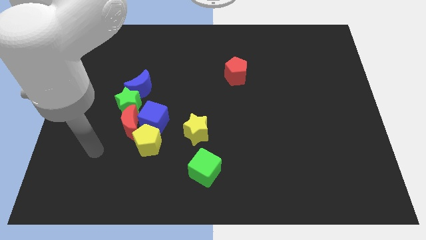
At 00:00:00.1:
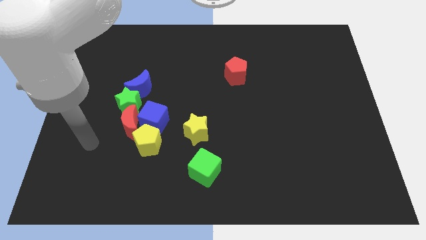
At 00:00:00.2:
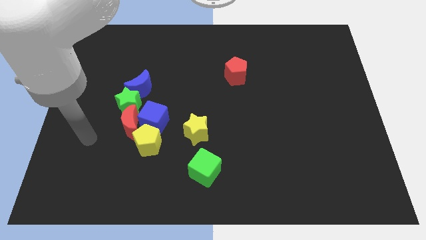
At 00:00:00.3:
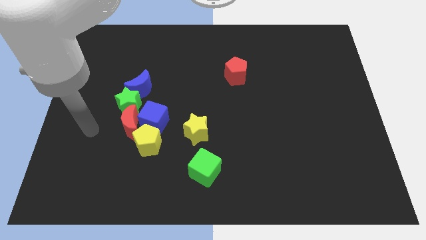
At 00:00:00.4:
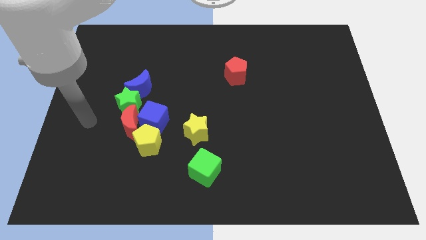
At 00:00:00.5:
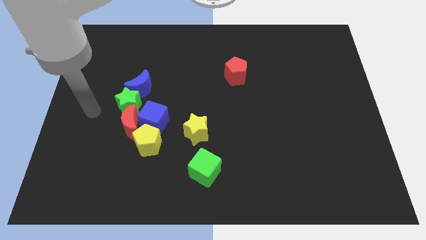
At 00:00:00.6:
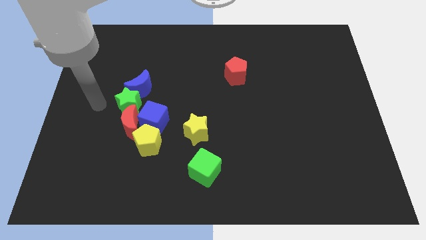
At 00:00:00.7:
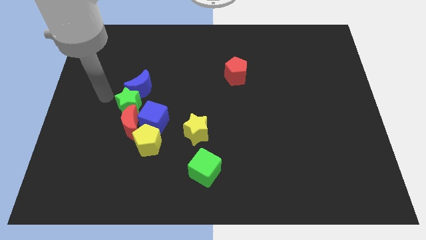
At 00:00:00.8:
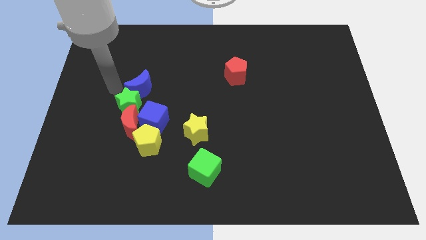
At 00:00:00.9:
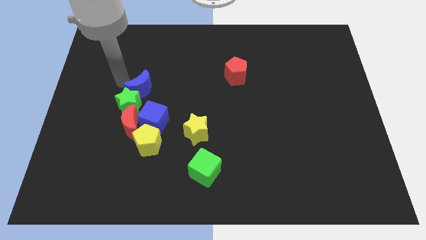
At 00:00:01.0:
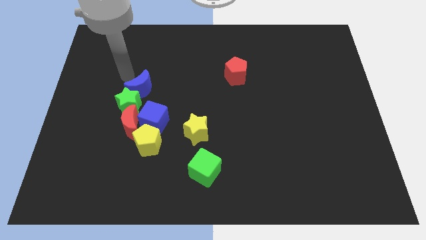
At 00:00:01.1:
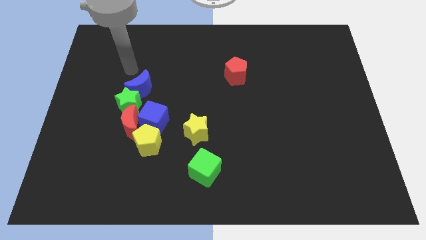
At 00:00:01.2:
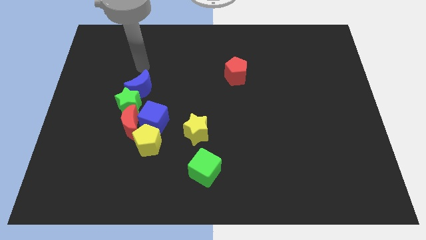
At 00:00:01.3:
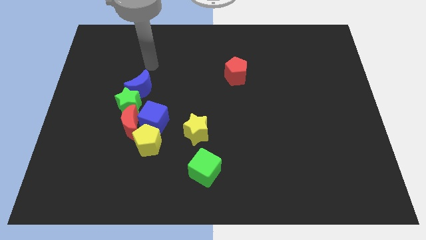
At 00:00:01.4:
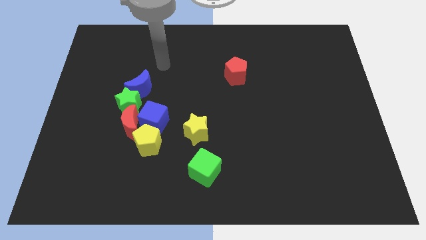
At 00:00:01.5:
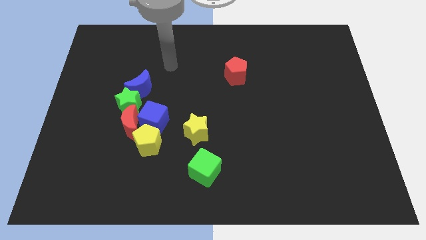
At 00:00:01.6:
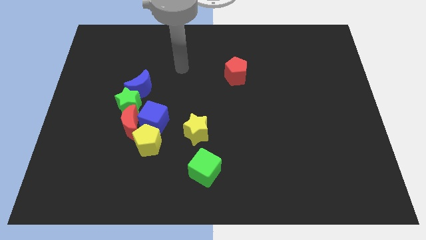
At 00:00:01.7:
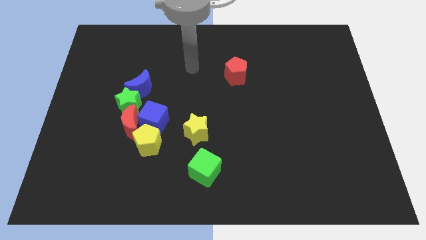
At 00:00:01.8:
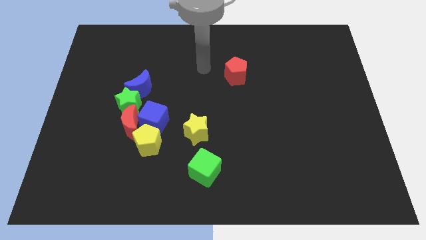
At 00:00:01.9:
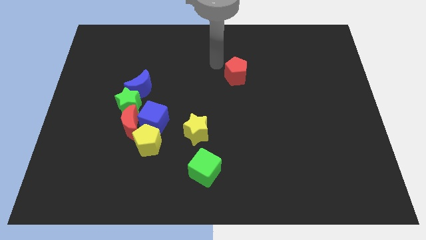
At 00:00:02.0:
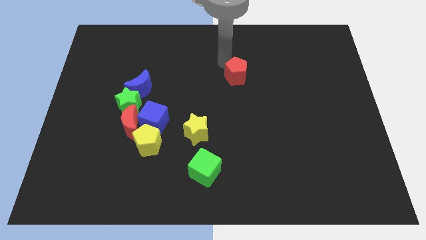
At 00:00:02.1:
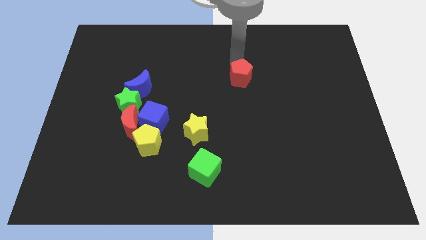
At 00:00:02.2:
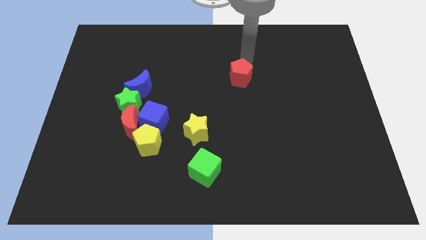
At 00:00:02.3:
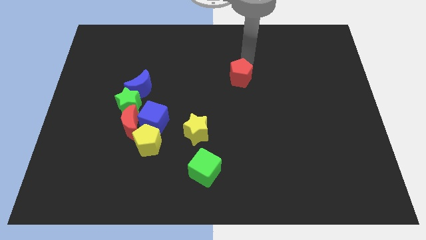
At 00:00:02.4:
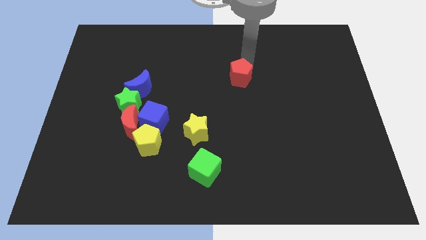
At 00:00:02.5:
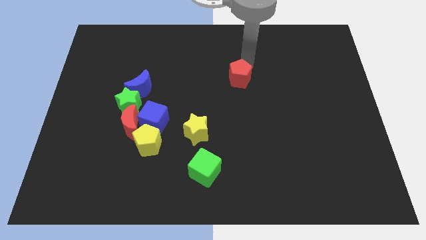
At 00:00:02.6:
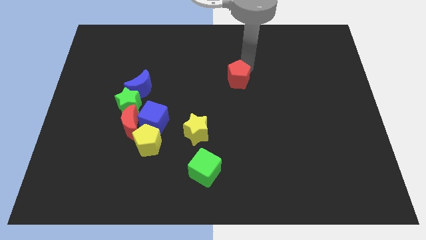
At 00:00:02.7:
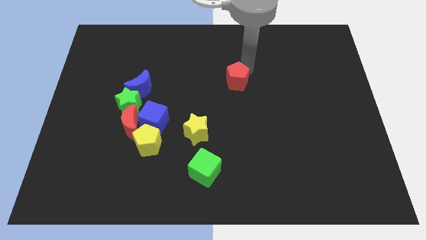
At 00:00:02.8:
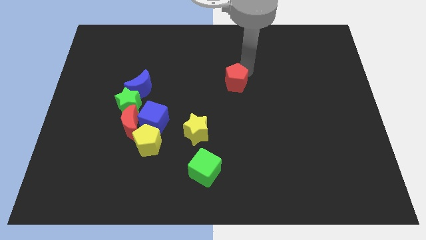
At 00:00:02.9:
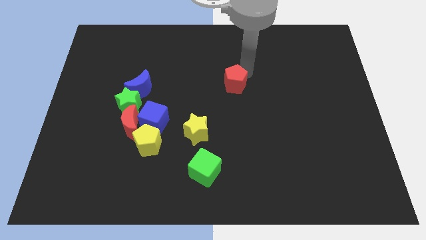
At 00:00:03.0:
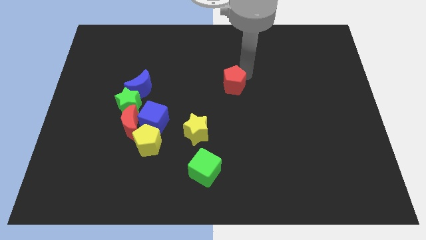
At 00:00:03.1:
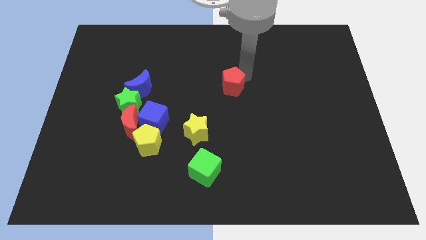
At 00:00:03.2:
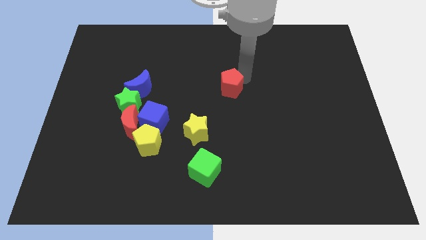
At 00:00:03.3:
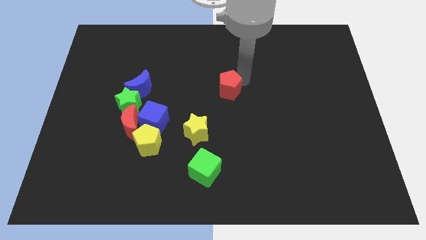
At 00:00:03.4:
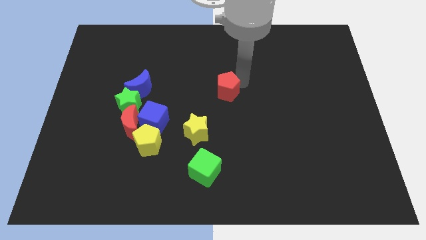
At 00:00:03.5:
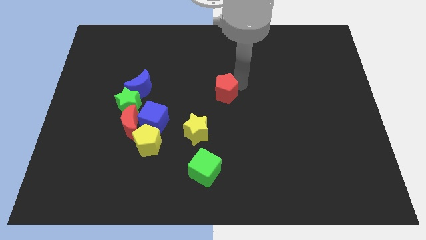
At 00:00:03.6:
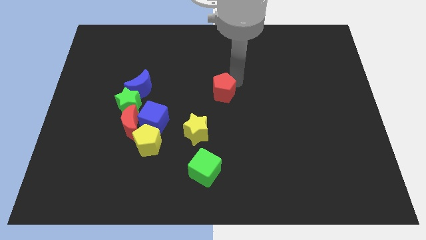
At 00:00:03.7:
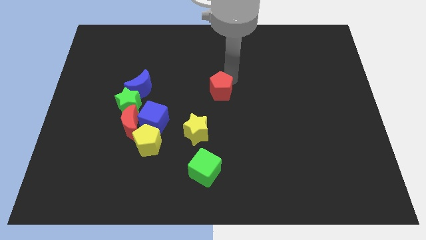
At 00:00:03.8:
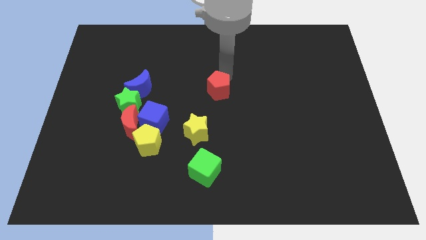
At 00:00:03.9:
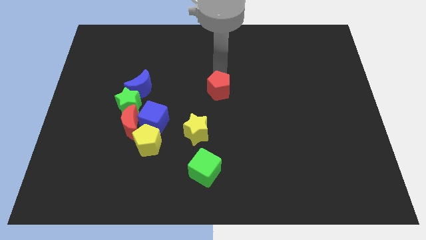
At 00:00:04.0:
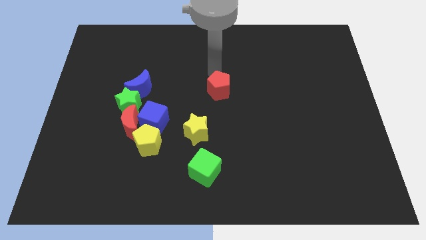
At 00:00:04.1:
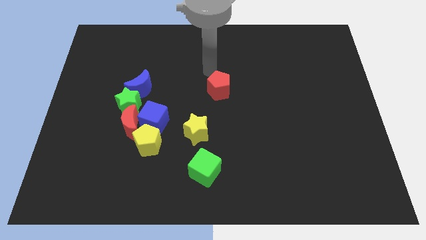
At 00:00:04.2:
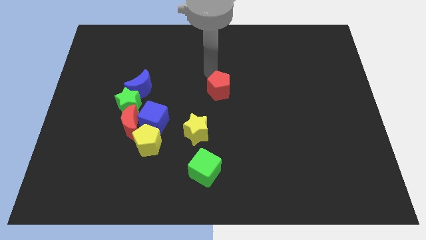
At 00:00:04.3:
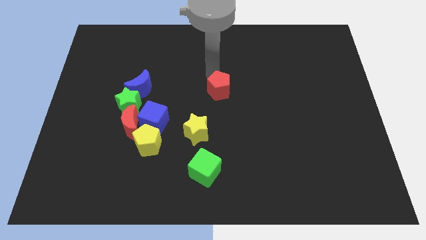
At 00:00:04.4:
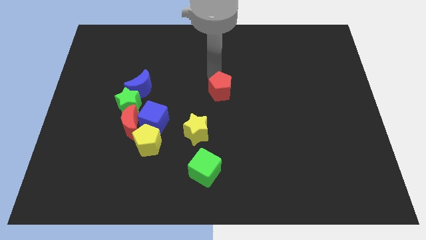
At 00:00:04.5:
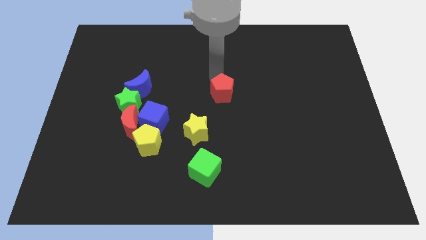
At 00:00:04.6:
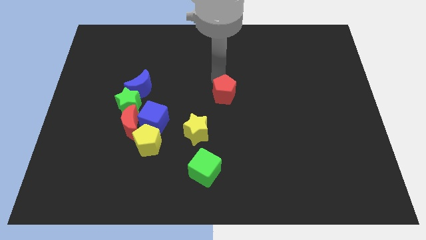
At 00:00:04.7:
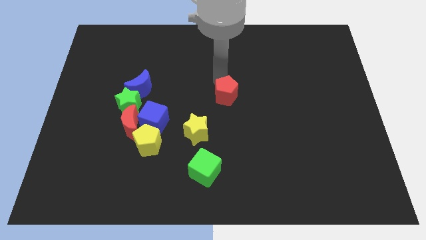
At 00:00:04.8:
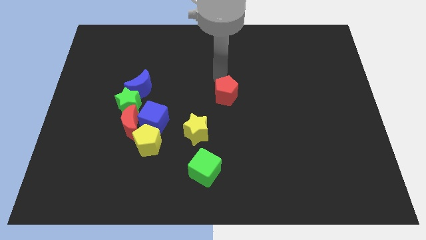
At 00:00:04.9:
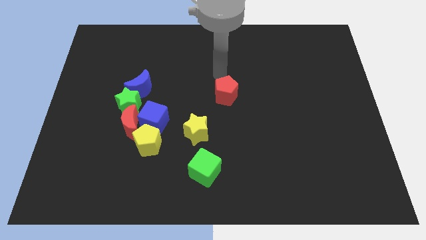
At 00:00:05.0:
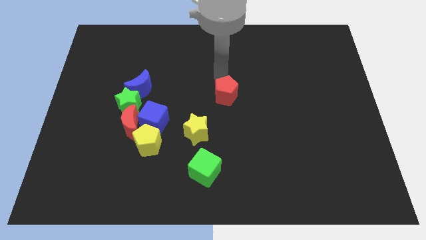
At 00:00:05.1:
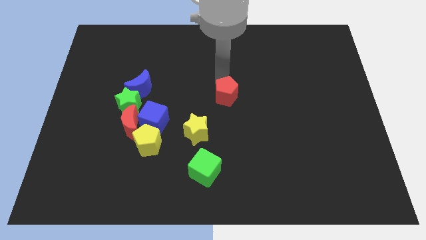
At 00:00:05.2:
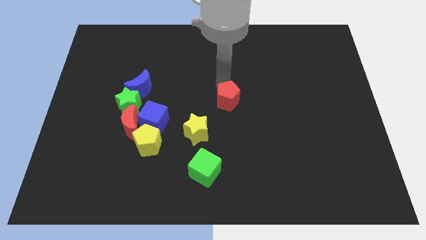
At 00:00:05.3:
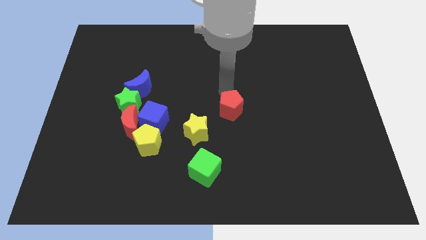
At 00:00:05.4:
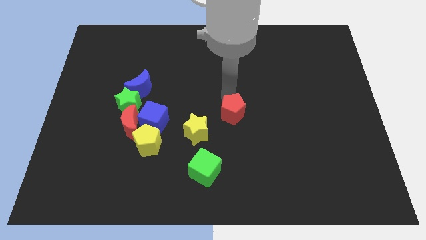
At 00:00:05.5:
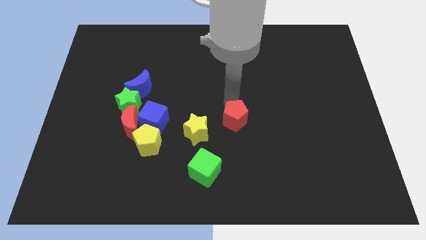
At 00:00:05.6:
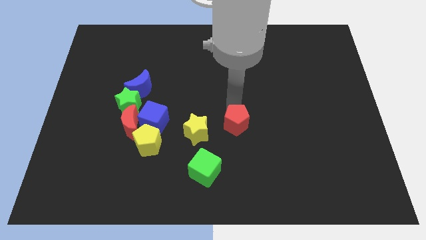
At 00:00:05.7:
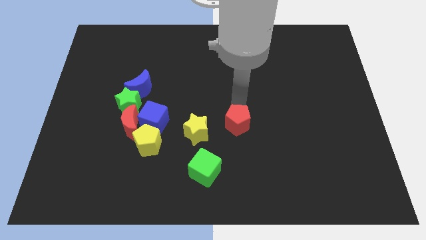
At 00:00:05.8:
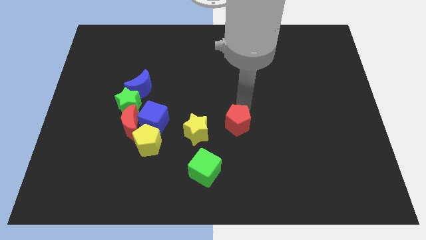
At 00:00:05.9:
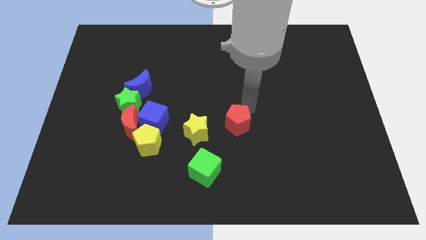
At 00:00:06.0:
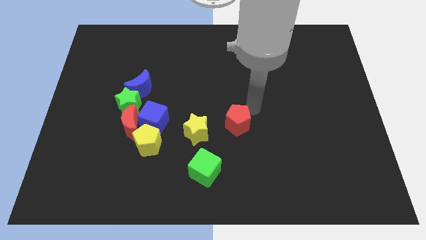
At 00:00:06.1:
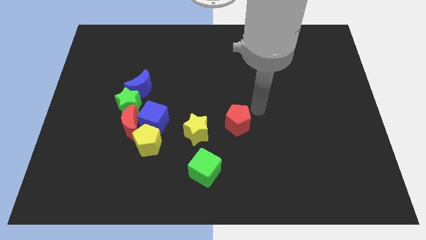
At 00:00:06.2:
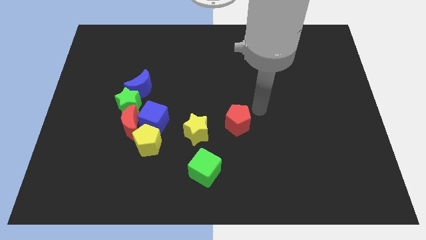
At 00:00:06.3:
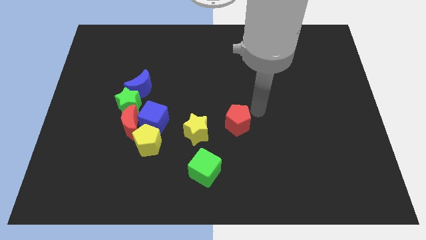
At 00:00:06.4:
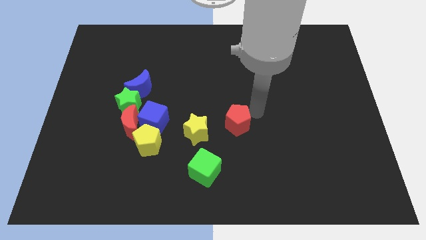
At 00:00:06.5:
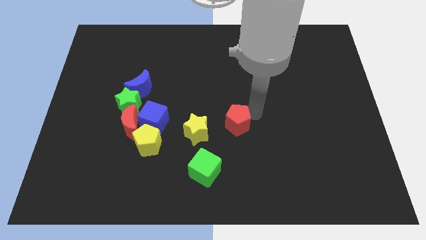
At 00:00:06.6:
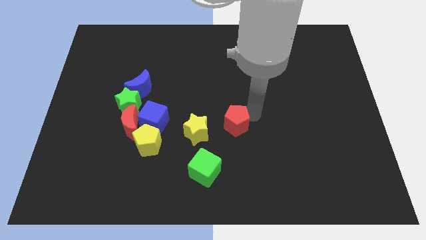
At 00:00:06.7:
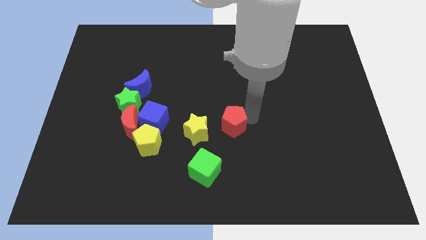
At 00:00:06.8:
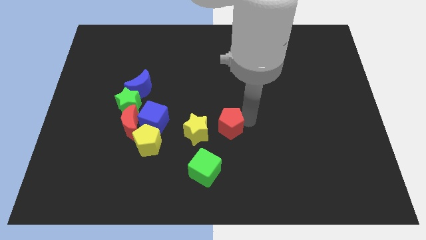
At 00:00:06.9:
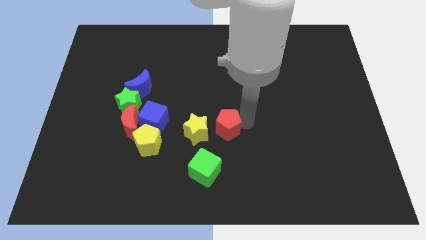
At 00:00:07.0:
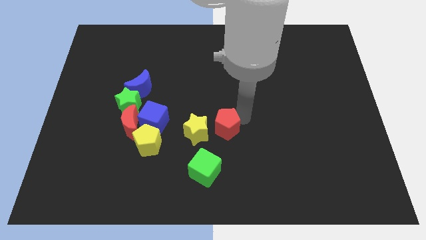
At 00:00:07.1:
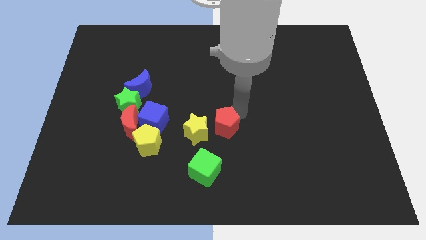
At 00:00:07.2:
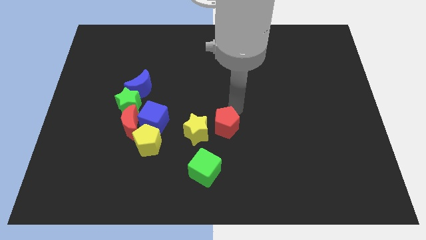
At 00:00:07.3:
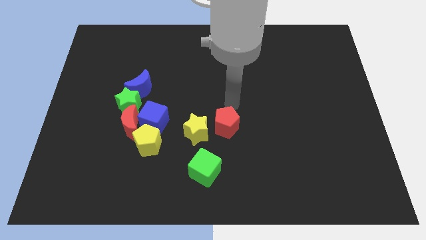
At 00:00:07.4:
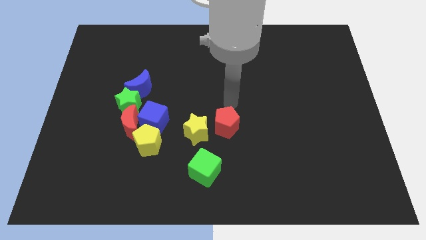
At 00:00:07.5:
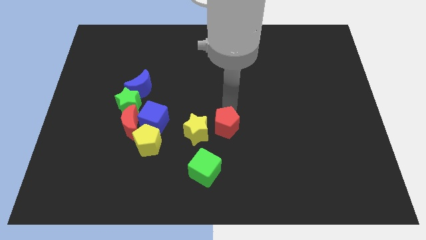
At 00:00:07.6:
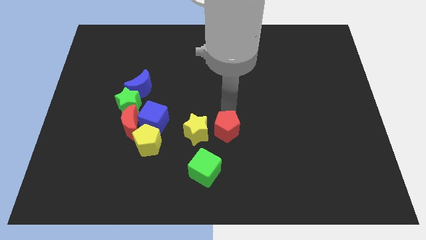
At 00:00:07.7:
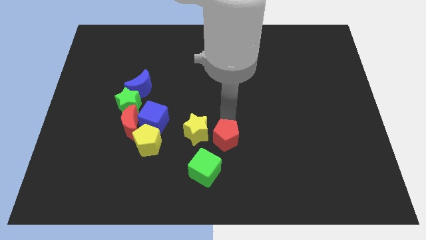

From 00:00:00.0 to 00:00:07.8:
push the red pentagon to the bottom right of the yellow star
